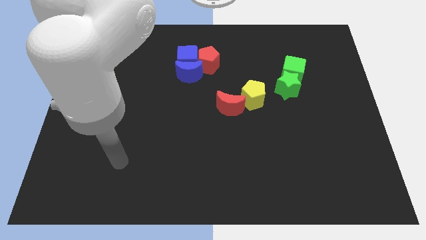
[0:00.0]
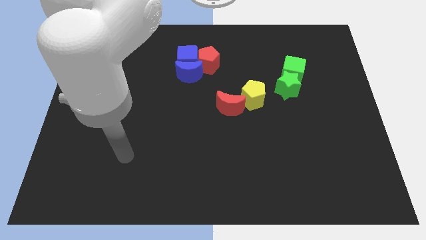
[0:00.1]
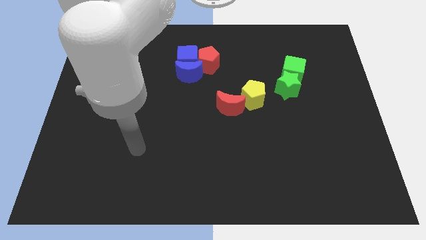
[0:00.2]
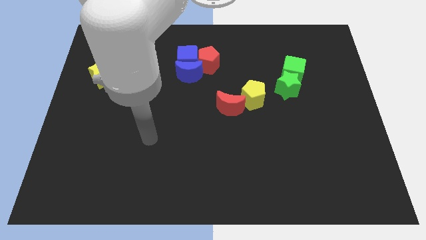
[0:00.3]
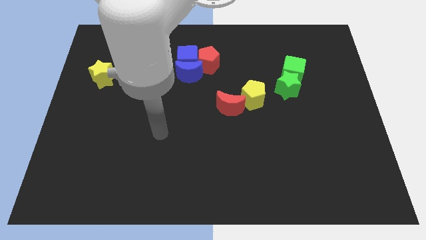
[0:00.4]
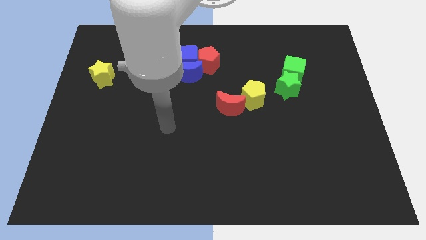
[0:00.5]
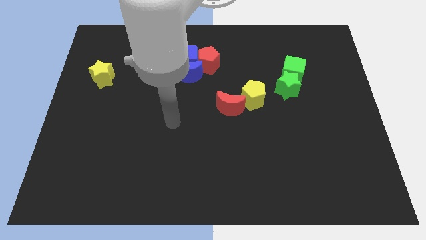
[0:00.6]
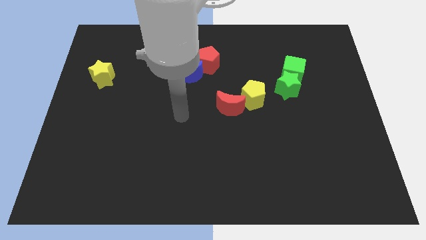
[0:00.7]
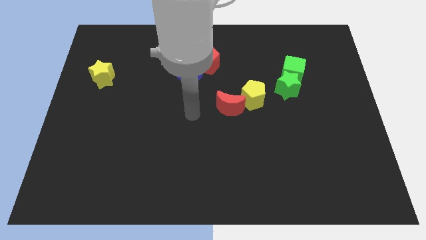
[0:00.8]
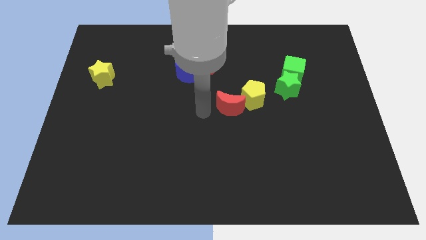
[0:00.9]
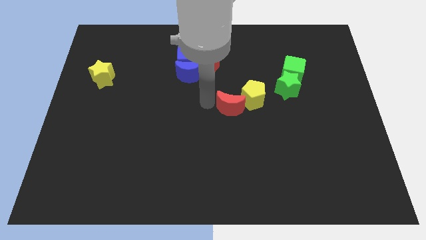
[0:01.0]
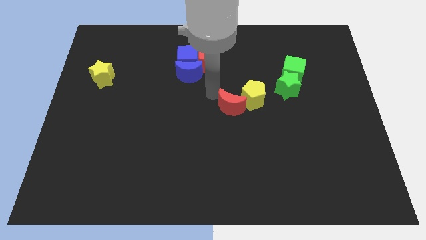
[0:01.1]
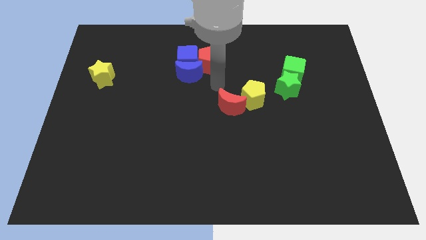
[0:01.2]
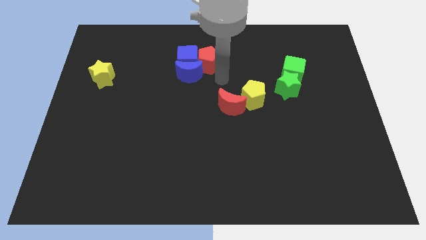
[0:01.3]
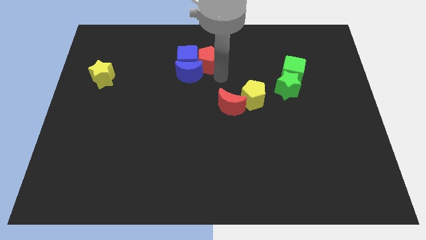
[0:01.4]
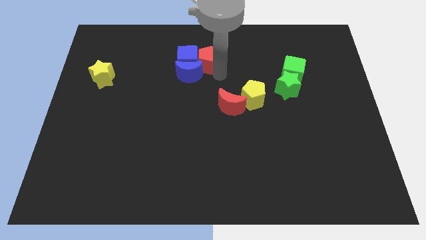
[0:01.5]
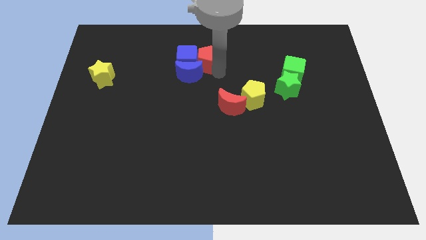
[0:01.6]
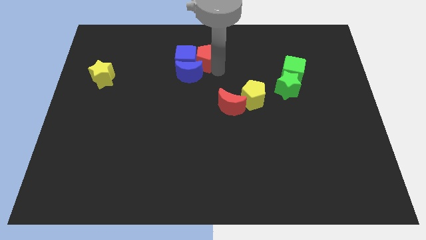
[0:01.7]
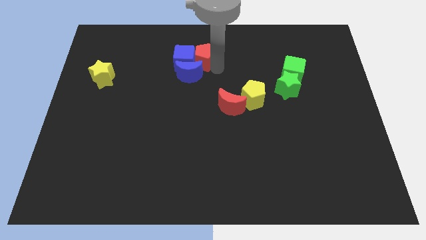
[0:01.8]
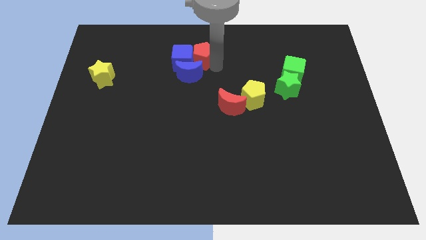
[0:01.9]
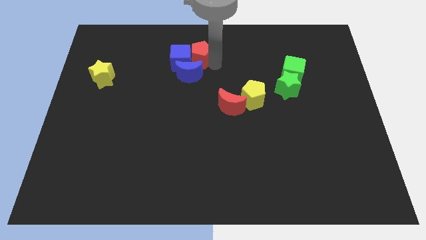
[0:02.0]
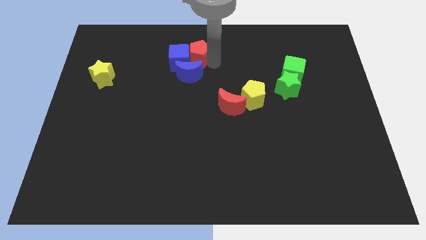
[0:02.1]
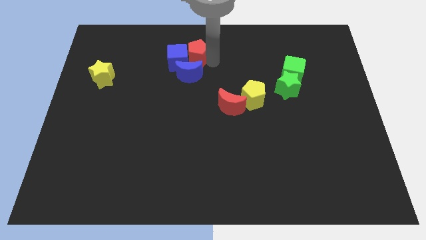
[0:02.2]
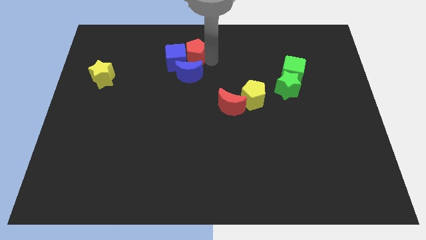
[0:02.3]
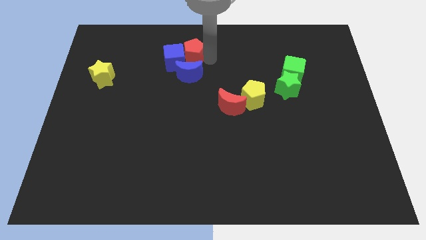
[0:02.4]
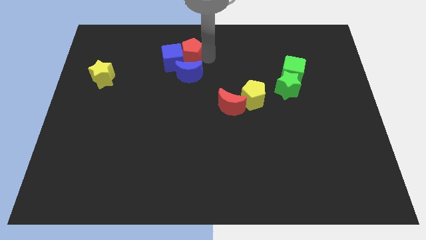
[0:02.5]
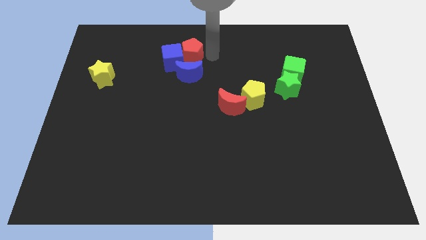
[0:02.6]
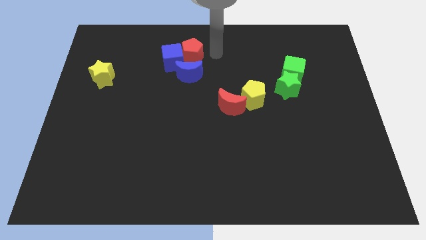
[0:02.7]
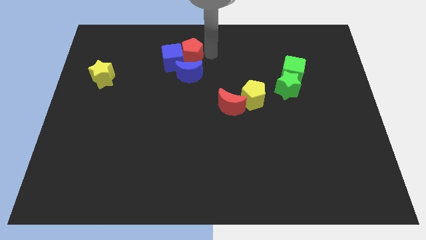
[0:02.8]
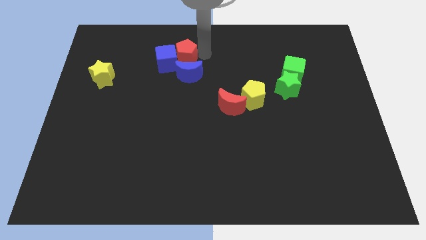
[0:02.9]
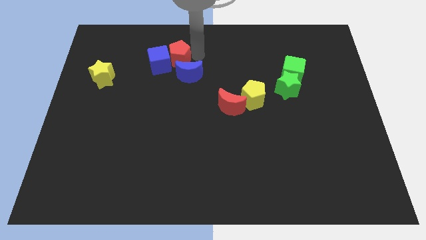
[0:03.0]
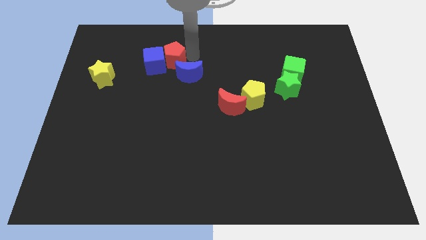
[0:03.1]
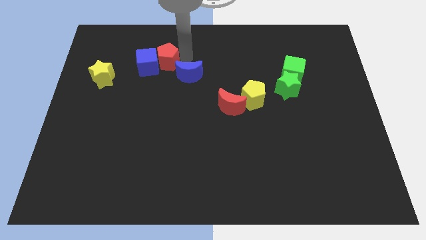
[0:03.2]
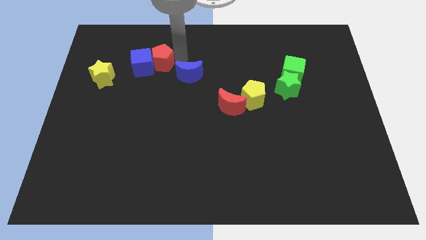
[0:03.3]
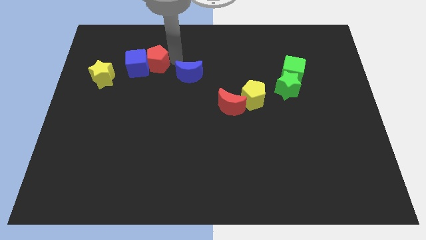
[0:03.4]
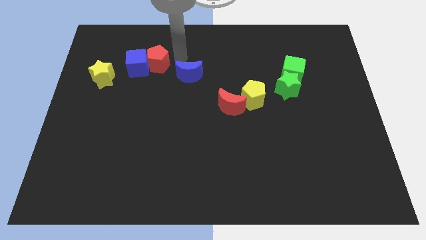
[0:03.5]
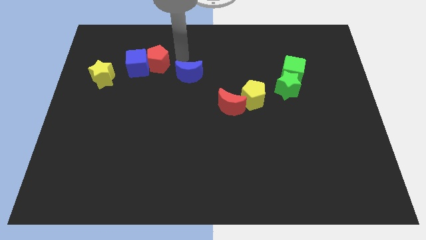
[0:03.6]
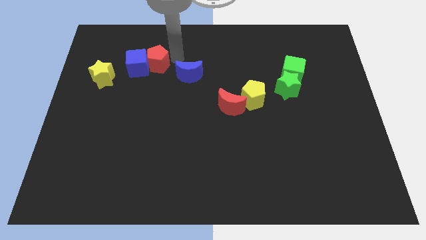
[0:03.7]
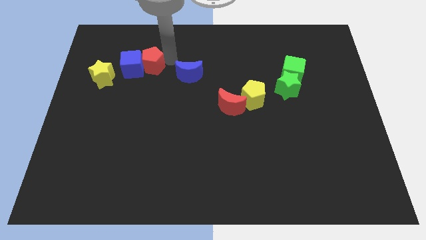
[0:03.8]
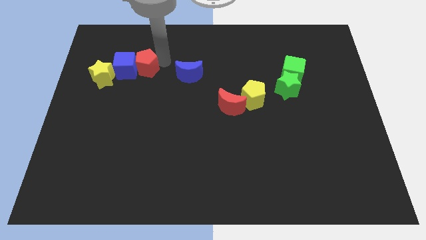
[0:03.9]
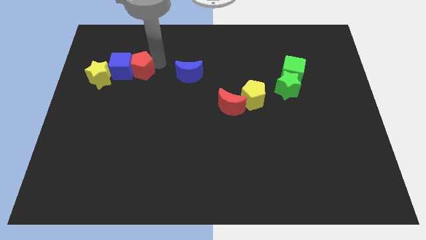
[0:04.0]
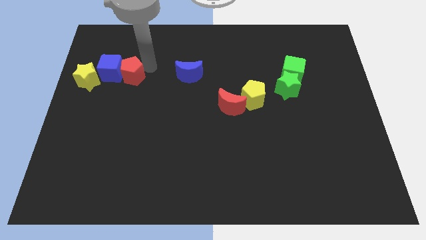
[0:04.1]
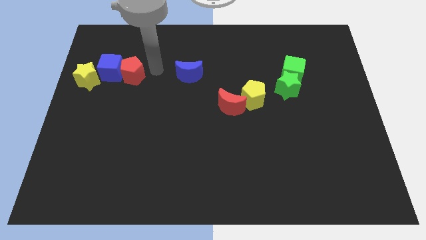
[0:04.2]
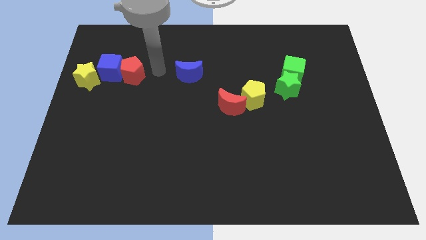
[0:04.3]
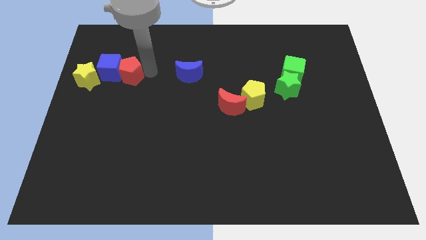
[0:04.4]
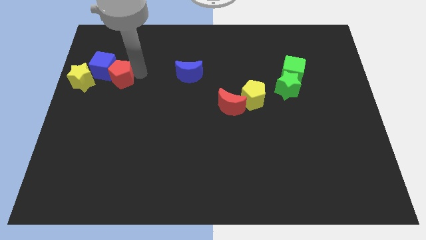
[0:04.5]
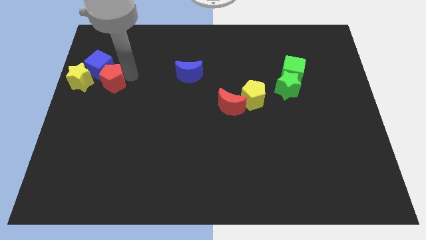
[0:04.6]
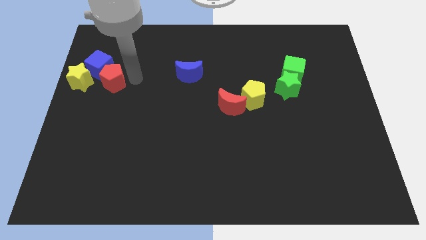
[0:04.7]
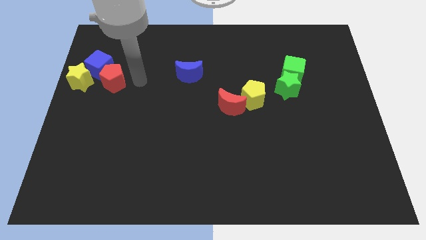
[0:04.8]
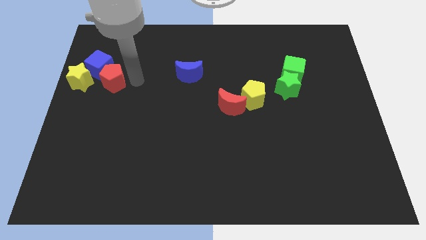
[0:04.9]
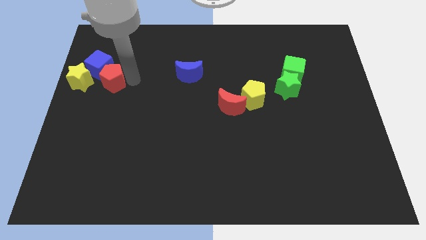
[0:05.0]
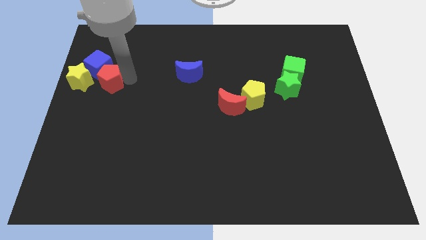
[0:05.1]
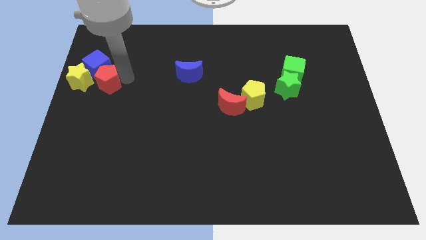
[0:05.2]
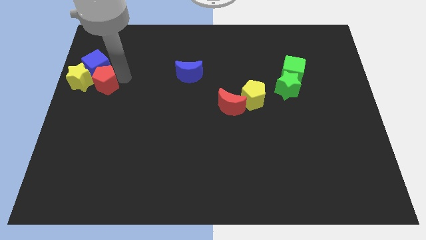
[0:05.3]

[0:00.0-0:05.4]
push the red pentagon next to the yellow star

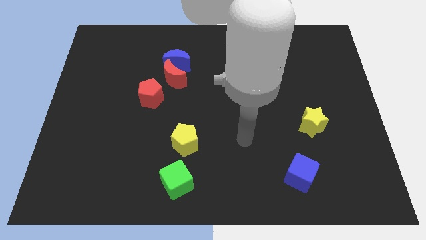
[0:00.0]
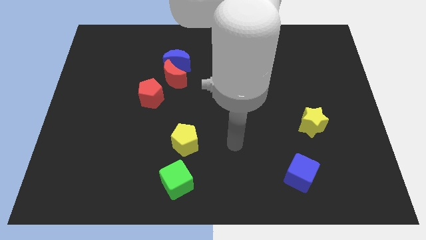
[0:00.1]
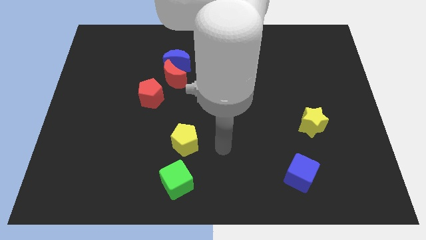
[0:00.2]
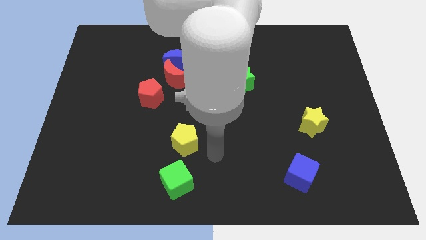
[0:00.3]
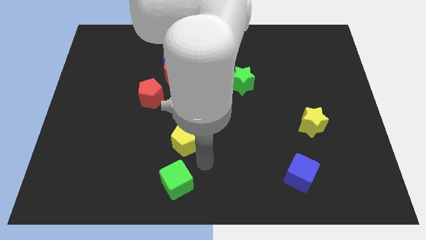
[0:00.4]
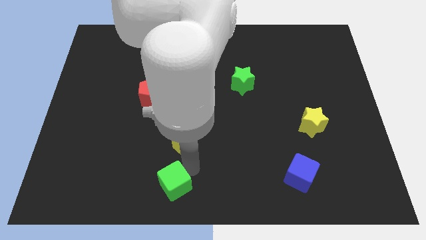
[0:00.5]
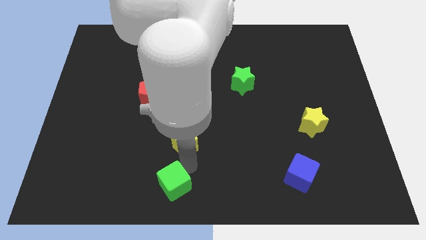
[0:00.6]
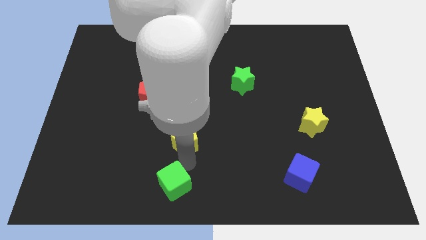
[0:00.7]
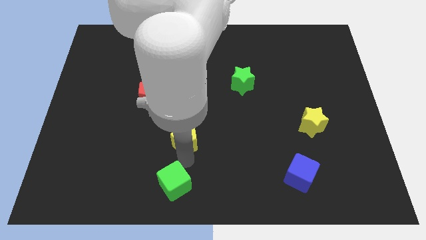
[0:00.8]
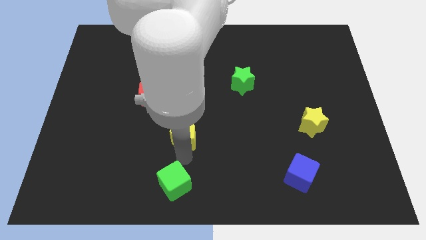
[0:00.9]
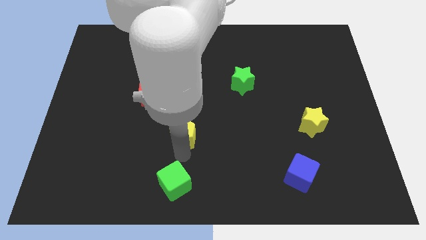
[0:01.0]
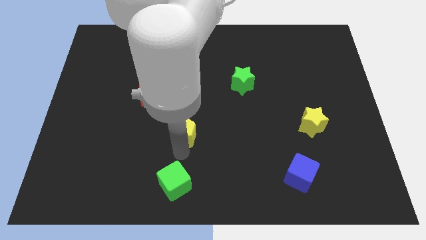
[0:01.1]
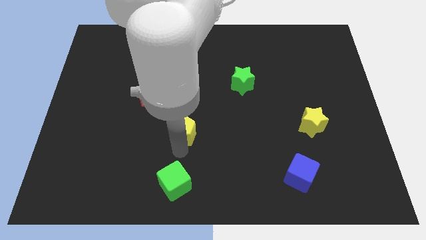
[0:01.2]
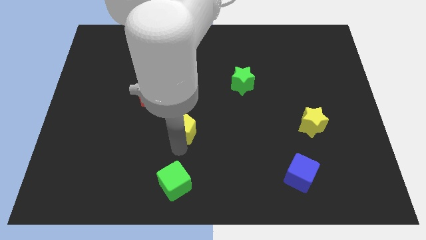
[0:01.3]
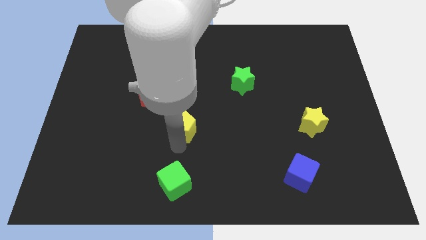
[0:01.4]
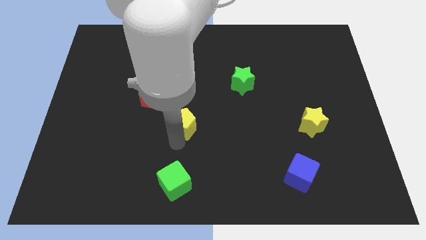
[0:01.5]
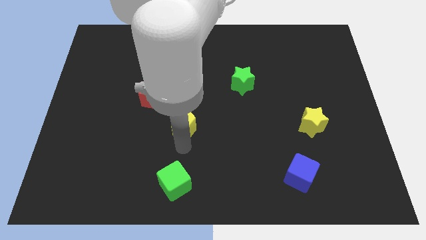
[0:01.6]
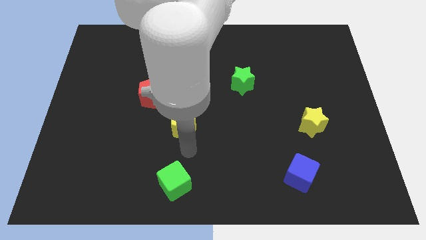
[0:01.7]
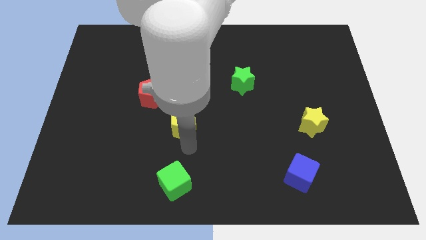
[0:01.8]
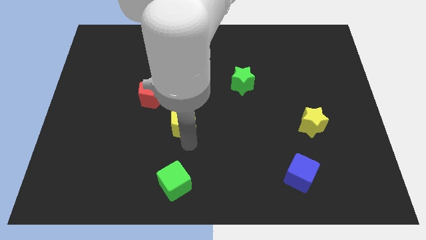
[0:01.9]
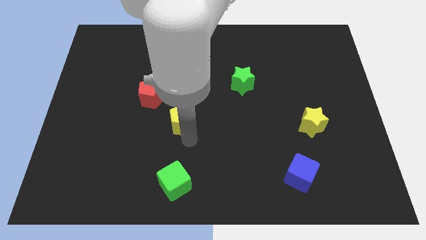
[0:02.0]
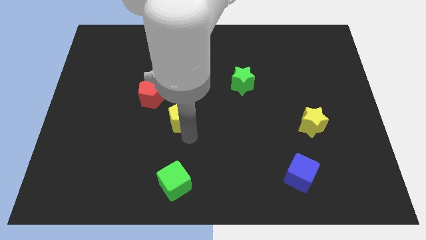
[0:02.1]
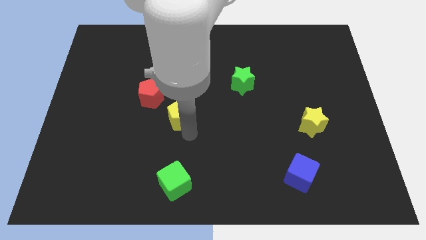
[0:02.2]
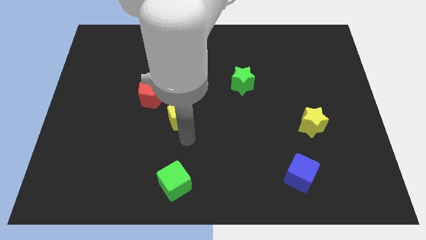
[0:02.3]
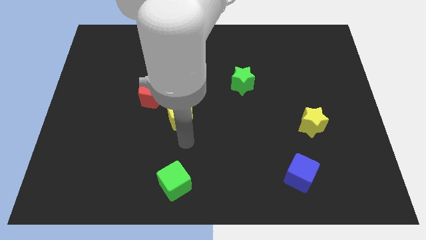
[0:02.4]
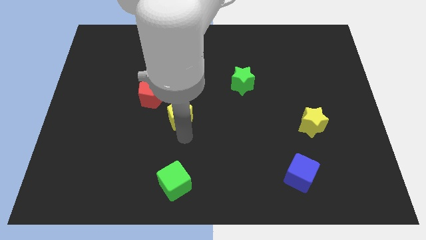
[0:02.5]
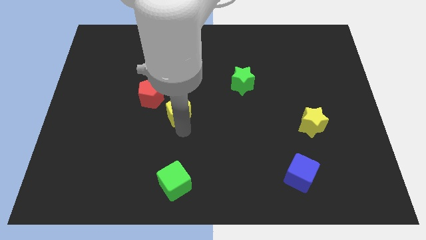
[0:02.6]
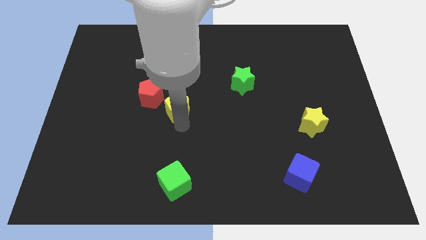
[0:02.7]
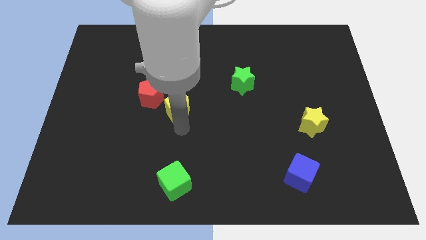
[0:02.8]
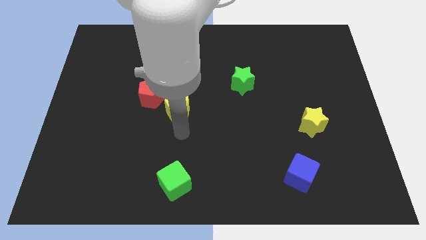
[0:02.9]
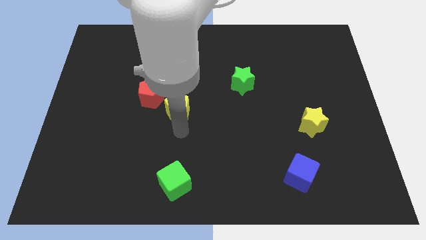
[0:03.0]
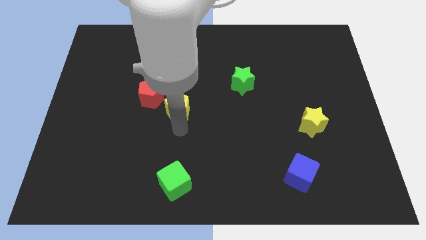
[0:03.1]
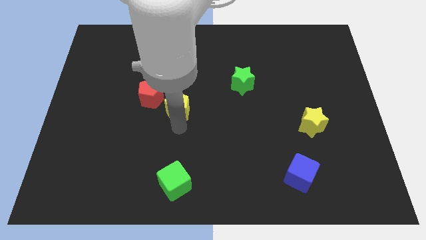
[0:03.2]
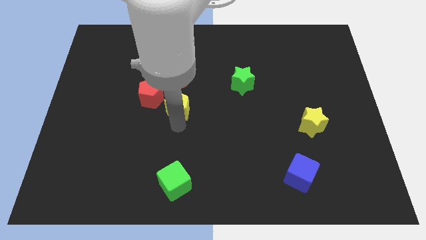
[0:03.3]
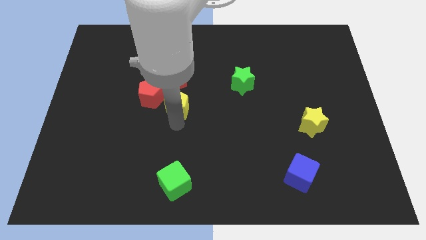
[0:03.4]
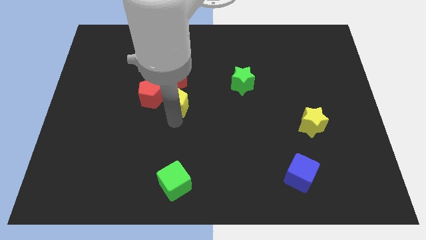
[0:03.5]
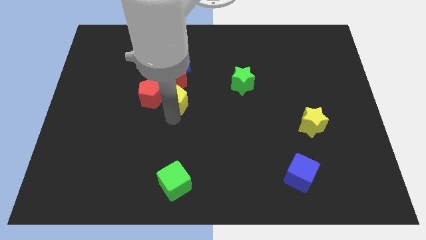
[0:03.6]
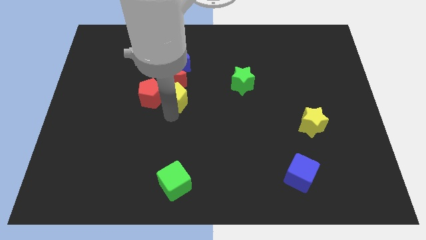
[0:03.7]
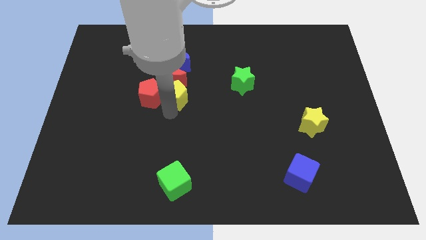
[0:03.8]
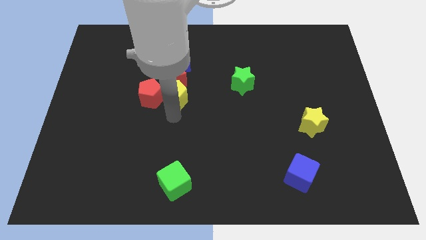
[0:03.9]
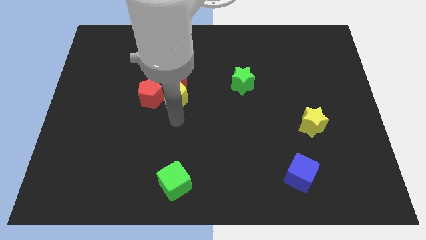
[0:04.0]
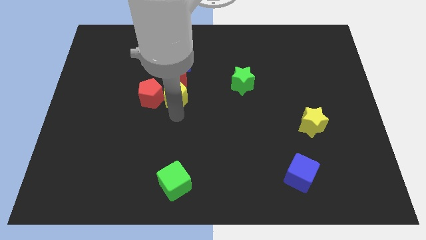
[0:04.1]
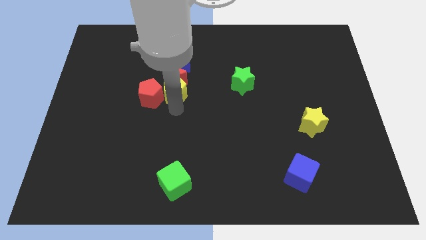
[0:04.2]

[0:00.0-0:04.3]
put the yellow pentagon towards the red moon
